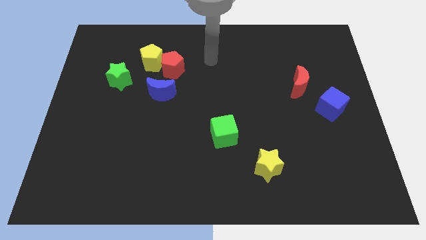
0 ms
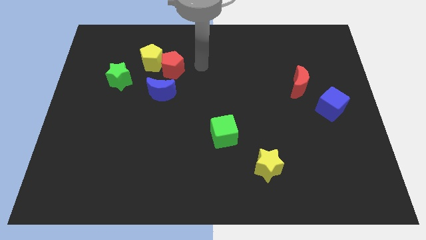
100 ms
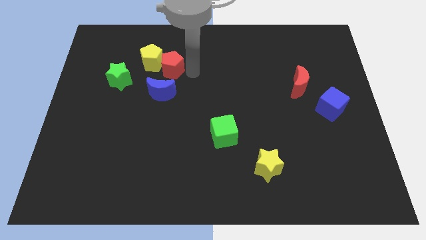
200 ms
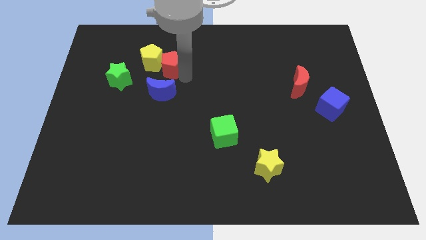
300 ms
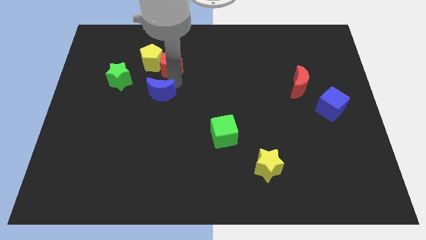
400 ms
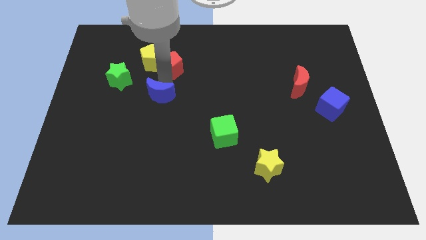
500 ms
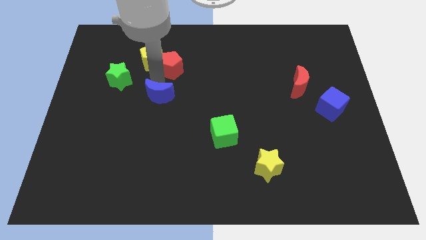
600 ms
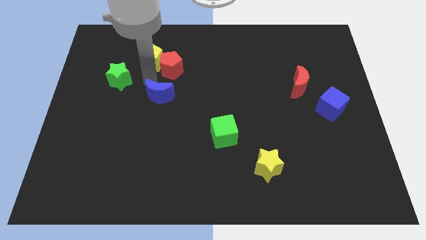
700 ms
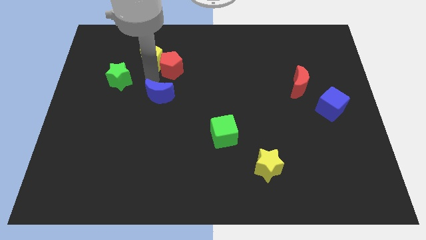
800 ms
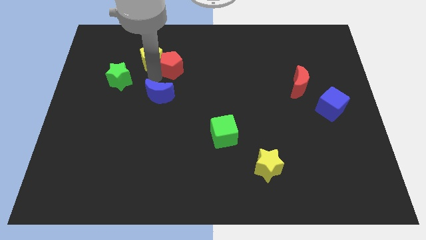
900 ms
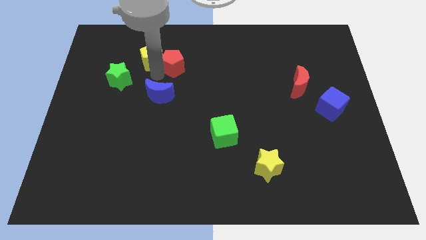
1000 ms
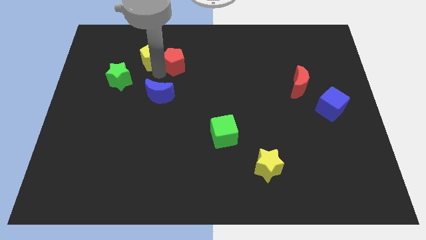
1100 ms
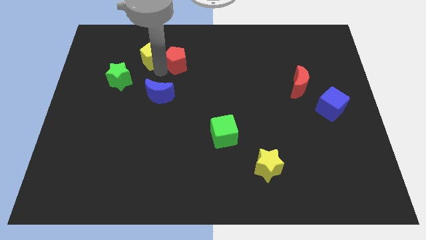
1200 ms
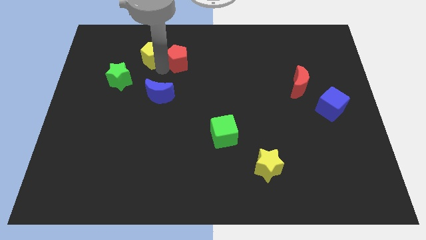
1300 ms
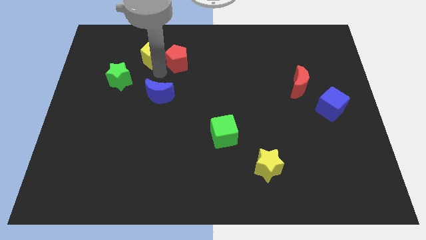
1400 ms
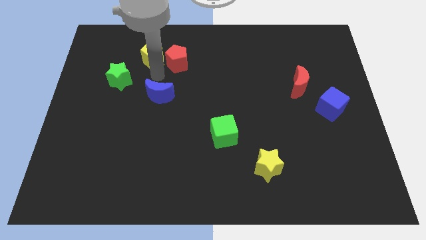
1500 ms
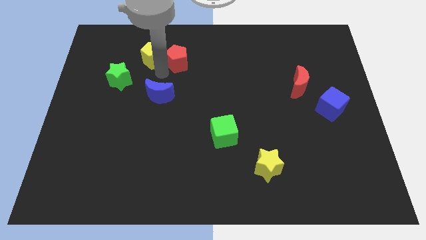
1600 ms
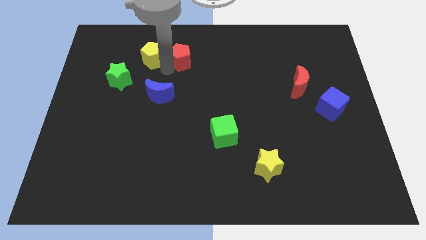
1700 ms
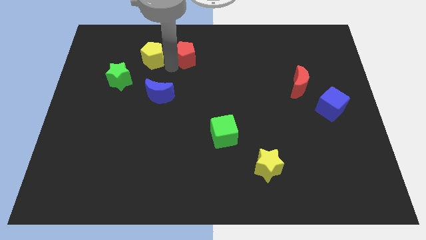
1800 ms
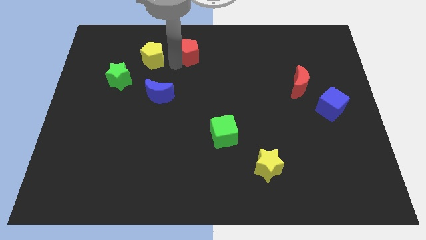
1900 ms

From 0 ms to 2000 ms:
pull the red pentagon apart from the yellow pentagon and blue moon

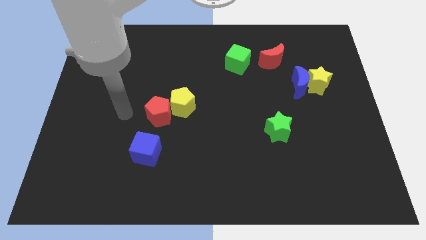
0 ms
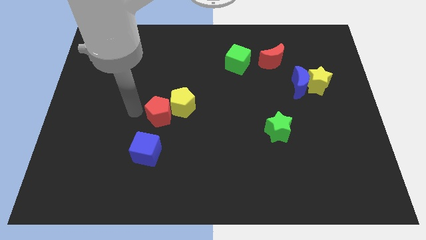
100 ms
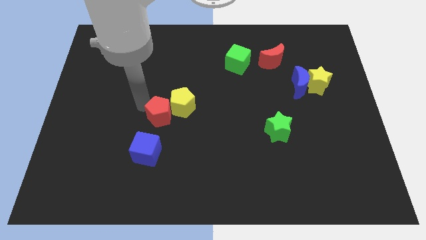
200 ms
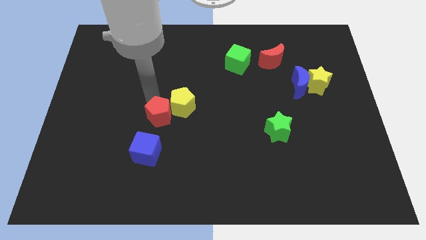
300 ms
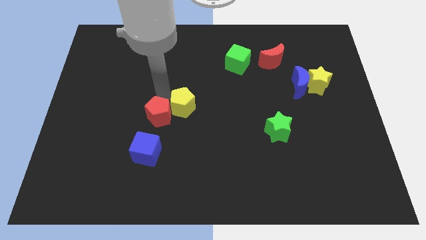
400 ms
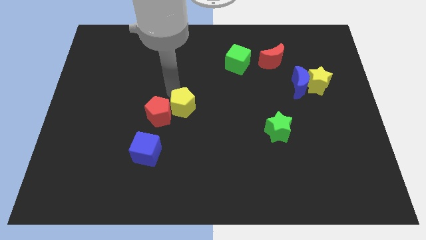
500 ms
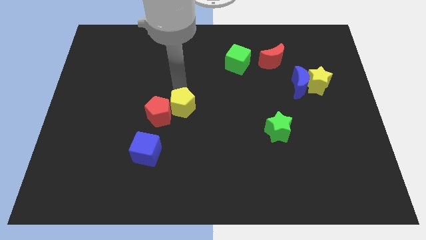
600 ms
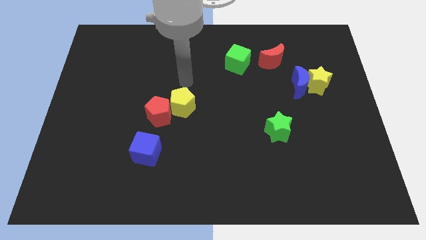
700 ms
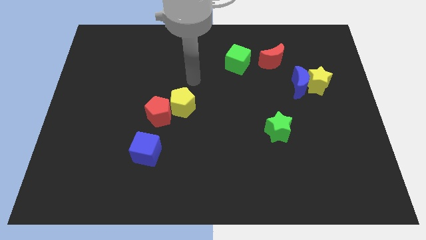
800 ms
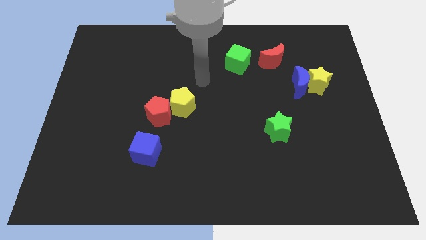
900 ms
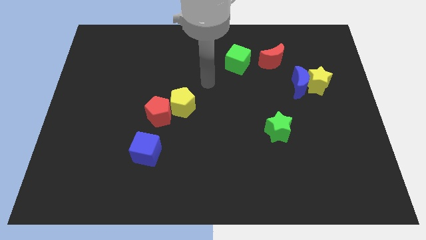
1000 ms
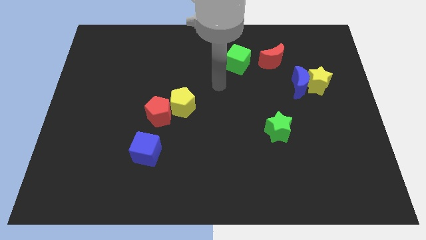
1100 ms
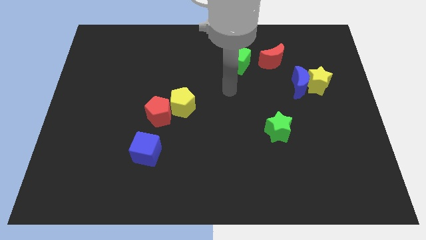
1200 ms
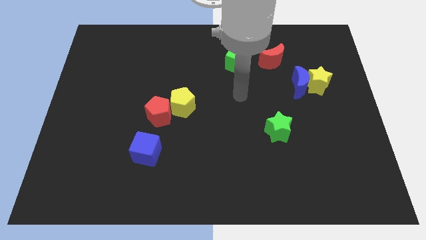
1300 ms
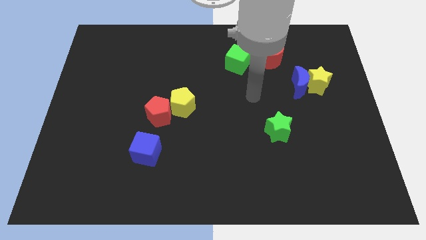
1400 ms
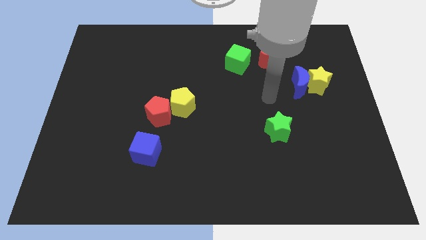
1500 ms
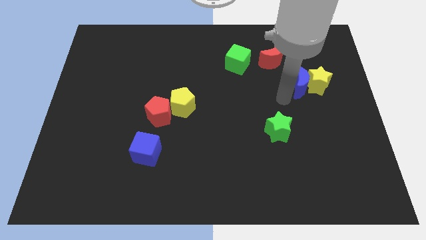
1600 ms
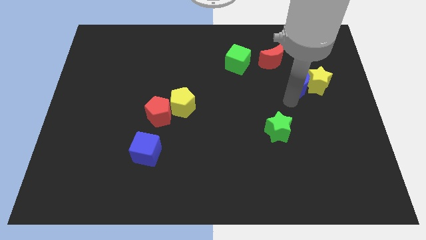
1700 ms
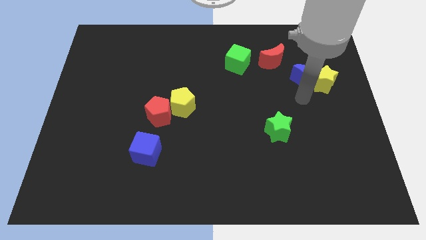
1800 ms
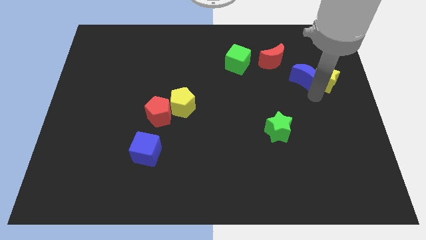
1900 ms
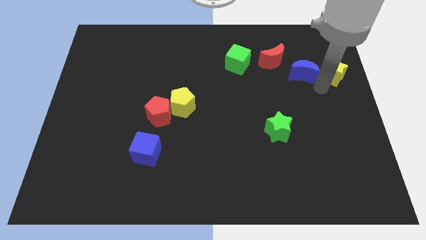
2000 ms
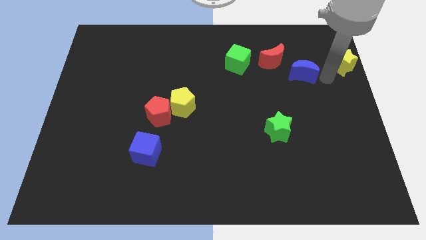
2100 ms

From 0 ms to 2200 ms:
pull the blue moon apart from the yellow star

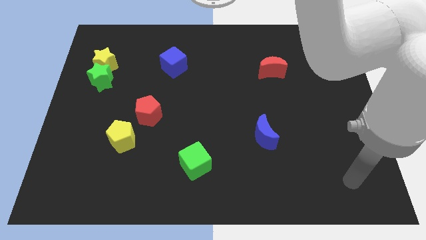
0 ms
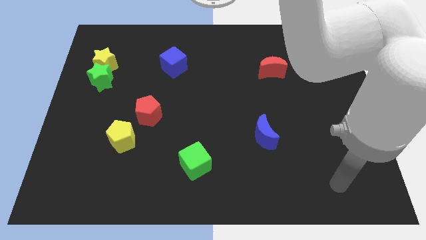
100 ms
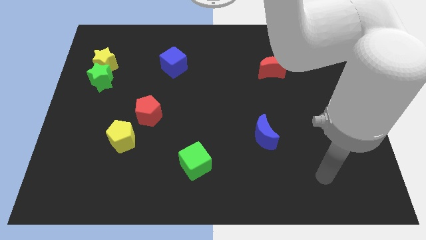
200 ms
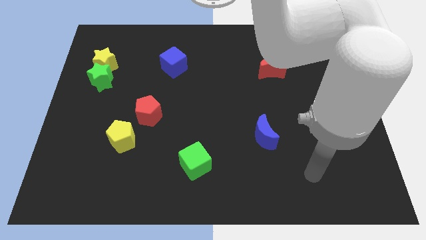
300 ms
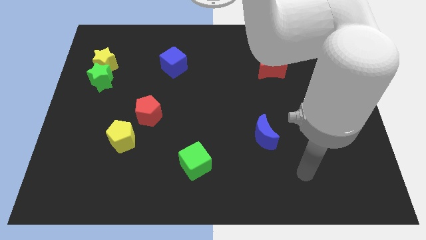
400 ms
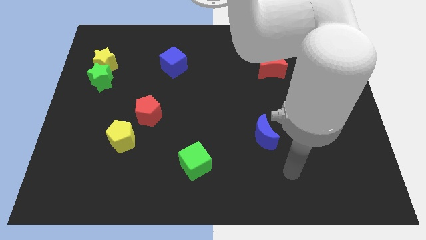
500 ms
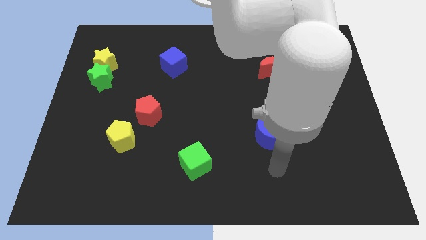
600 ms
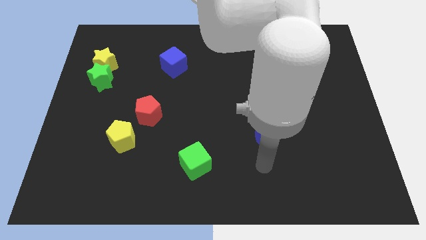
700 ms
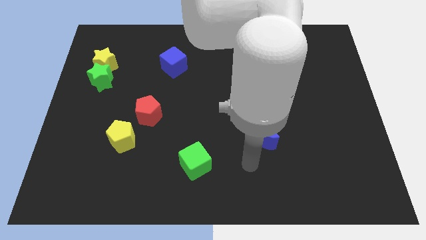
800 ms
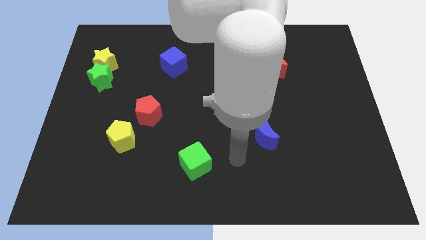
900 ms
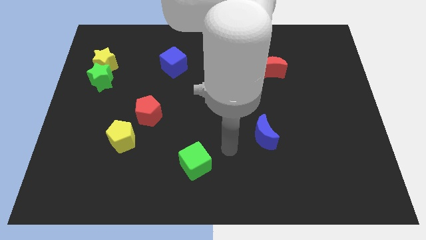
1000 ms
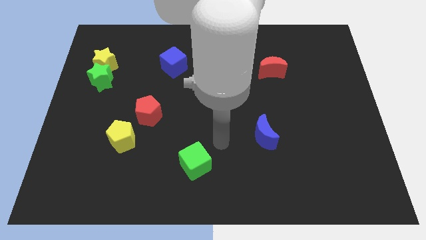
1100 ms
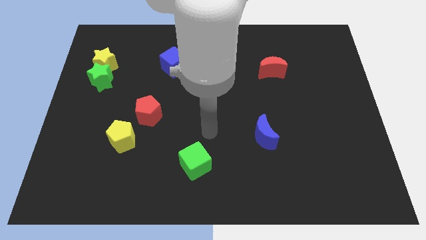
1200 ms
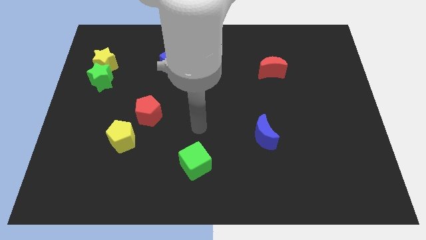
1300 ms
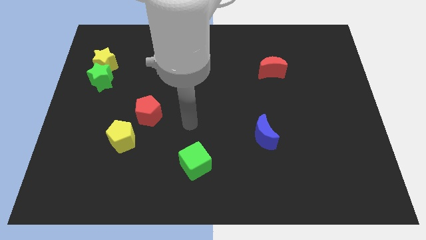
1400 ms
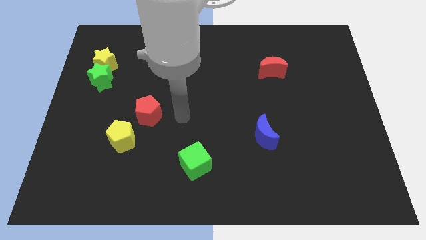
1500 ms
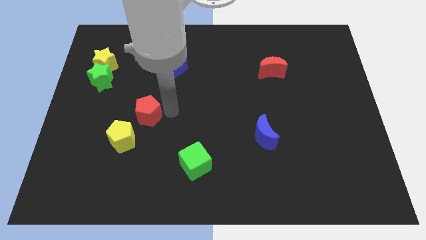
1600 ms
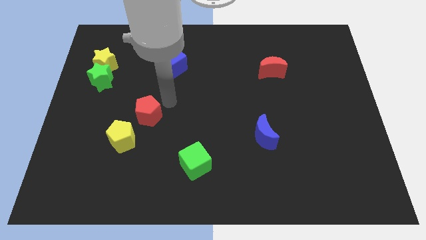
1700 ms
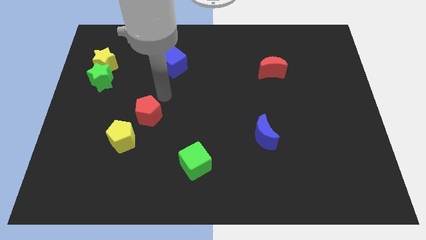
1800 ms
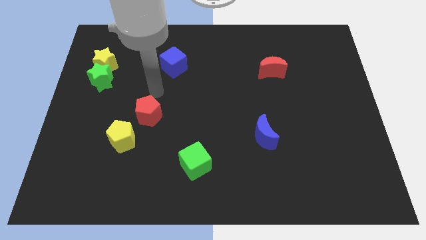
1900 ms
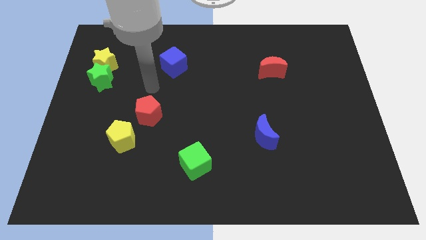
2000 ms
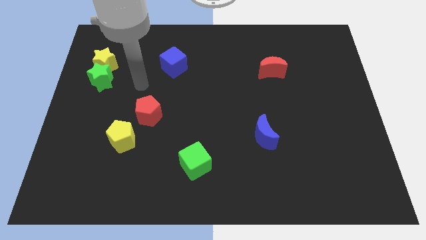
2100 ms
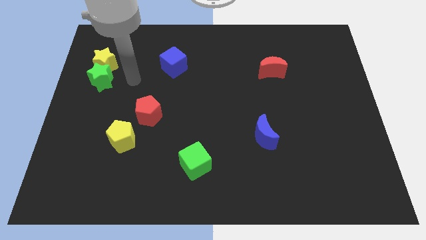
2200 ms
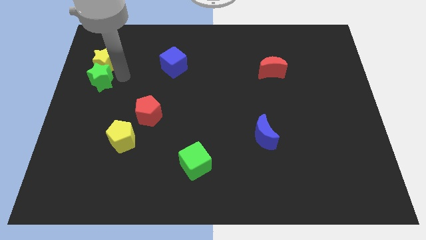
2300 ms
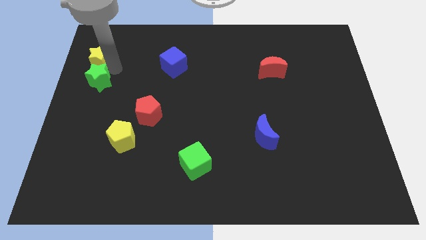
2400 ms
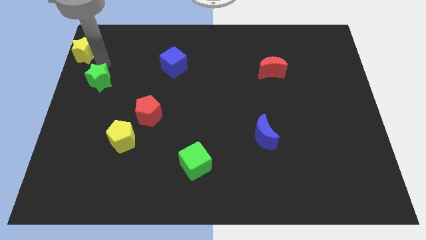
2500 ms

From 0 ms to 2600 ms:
separate the green star from the yellow star

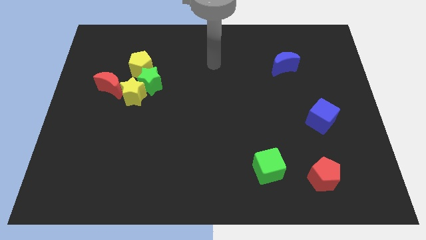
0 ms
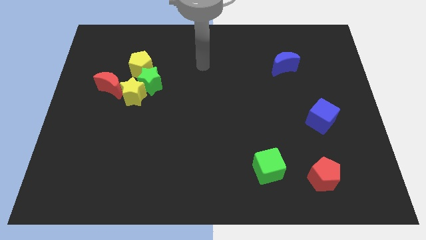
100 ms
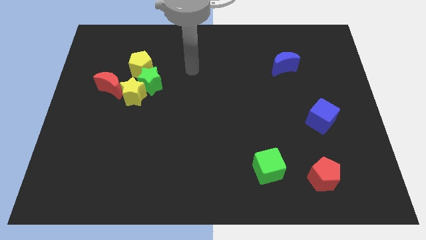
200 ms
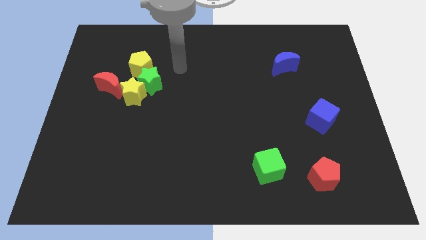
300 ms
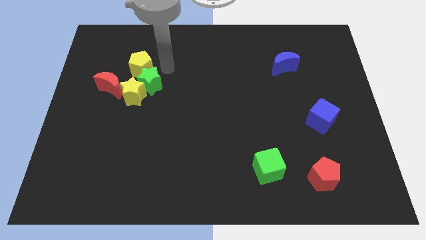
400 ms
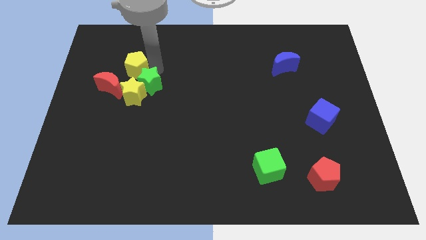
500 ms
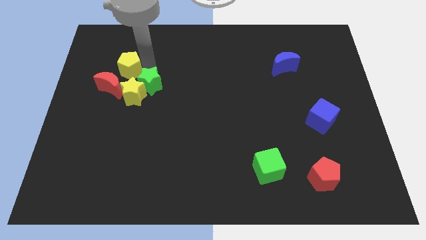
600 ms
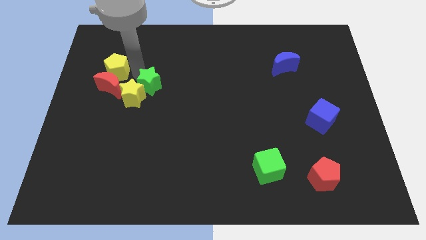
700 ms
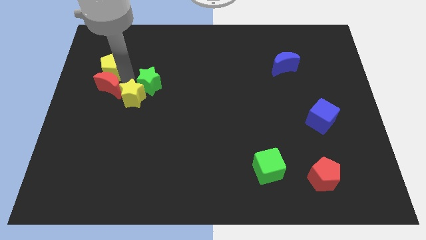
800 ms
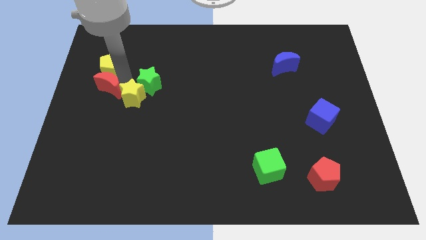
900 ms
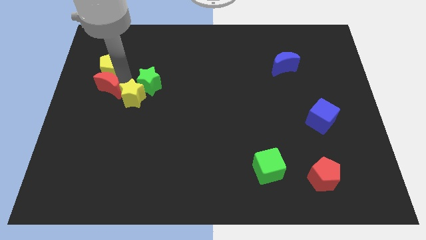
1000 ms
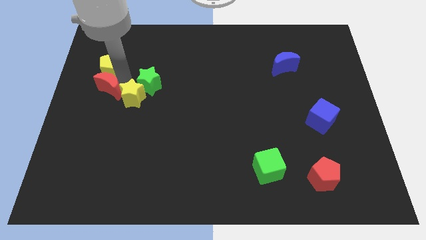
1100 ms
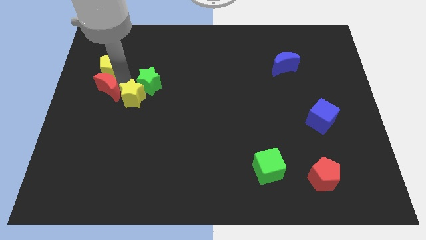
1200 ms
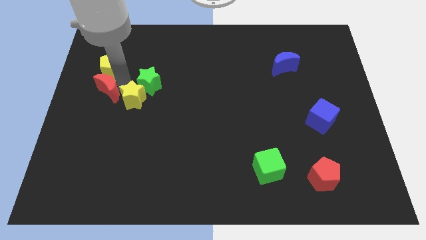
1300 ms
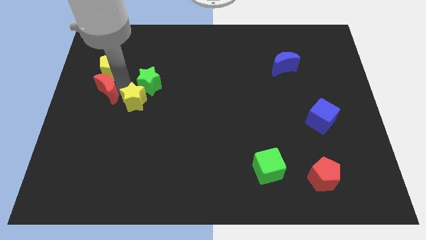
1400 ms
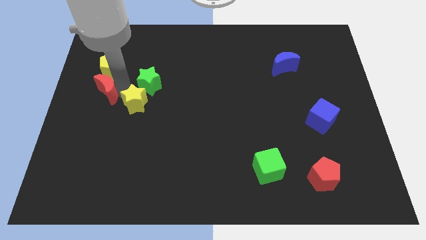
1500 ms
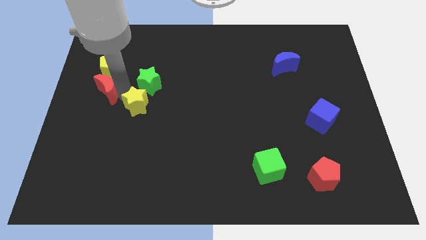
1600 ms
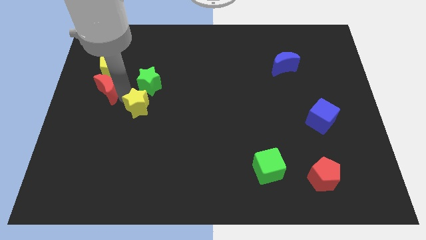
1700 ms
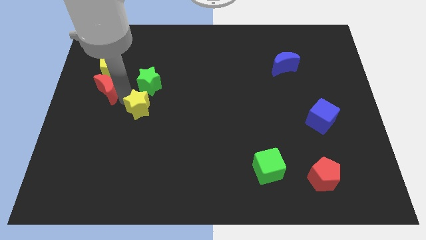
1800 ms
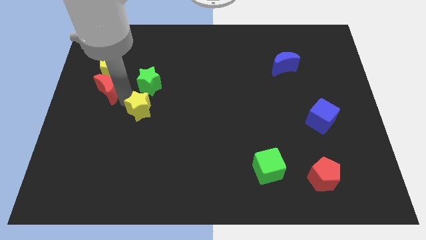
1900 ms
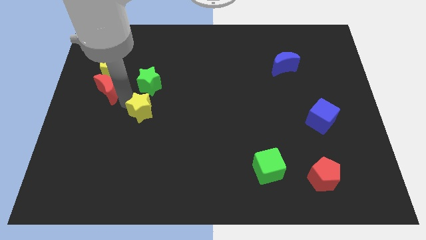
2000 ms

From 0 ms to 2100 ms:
separate the yellow star from the green star, red moon, and yellow pentagon

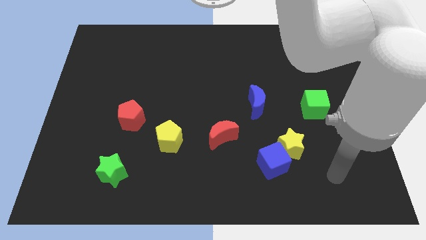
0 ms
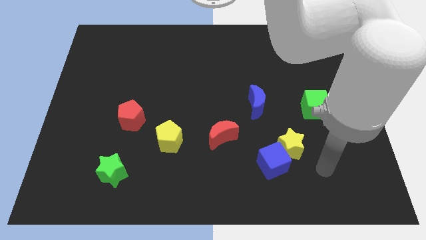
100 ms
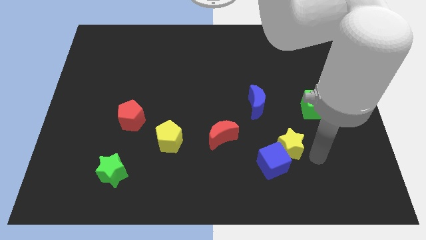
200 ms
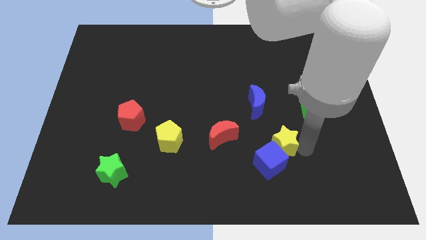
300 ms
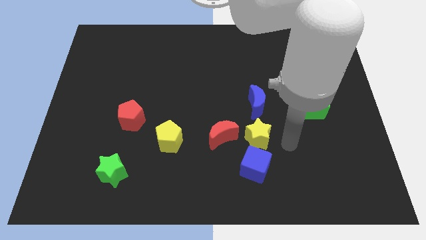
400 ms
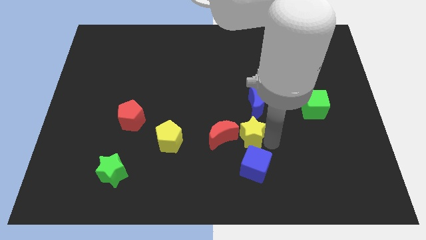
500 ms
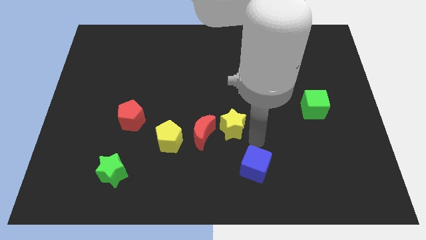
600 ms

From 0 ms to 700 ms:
separate the blue cube from the yellow star
